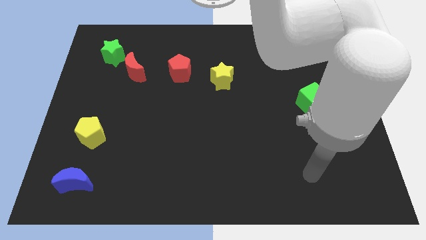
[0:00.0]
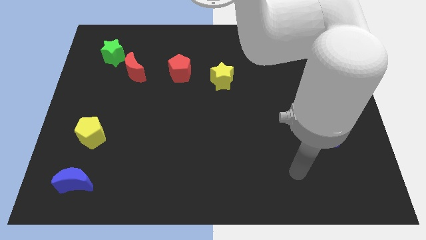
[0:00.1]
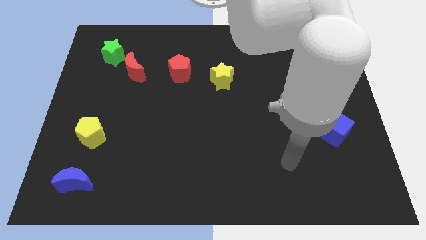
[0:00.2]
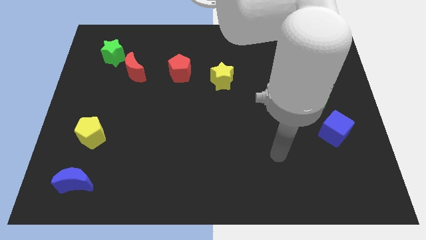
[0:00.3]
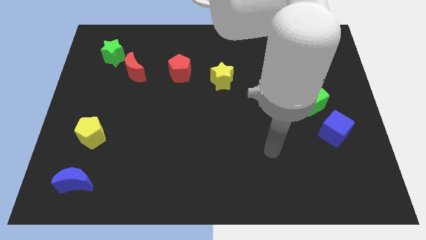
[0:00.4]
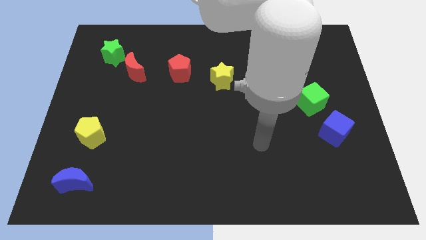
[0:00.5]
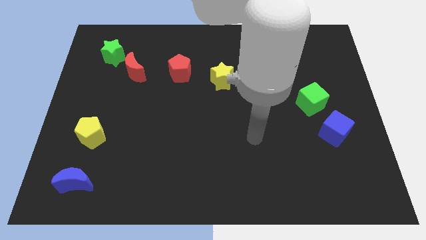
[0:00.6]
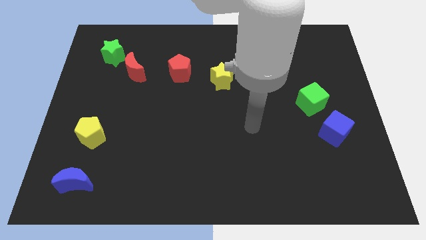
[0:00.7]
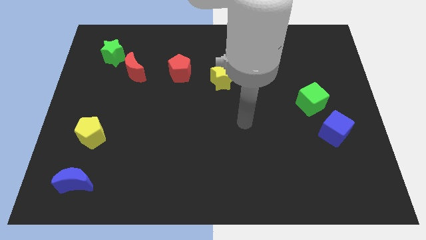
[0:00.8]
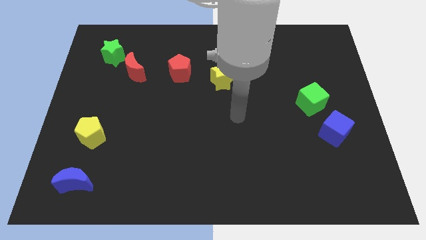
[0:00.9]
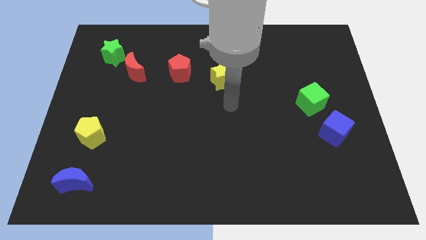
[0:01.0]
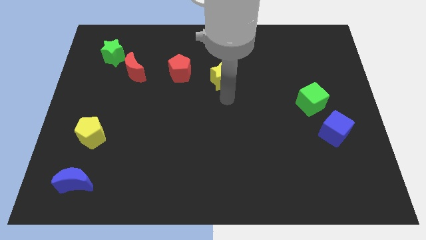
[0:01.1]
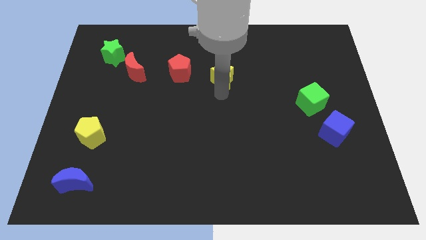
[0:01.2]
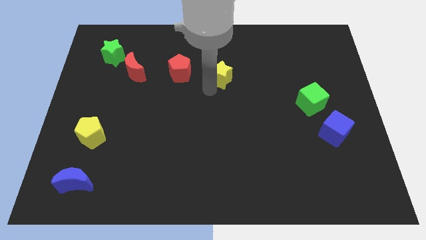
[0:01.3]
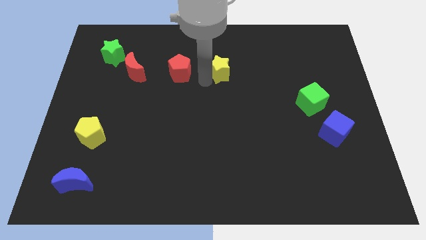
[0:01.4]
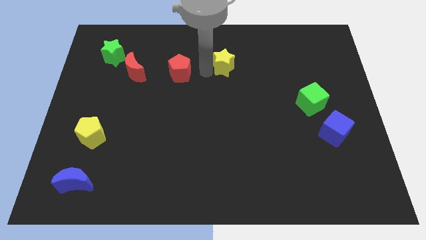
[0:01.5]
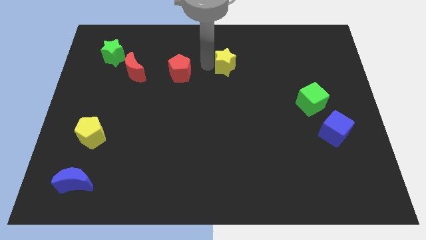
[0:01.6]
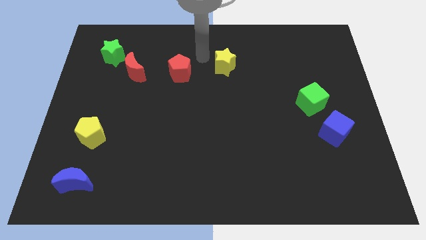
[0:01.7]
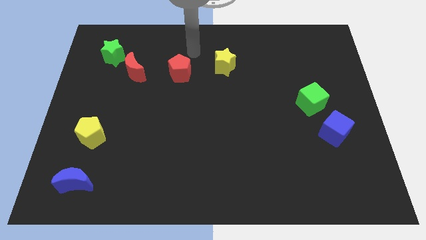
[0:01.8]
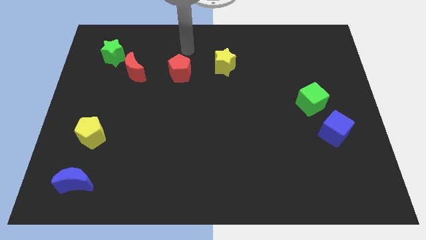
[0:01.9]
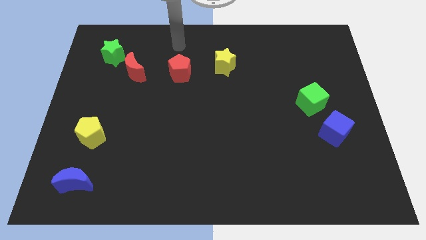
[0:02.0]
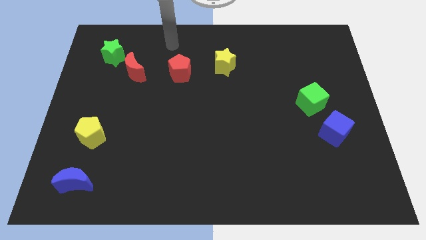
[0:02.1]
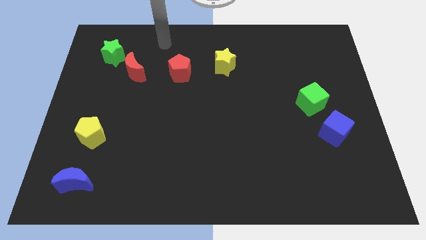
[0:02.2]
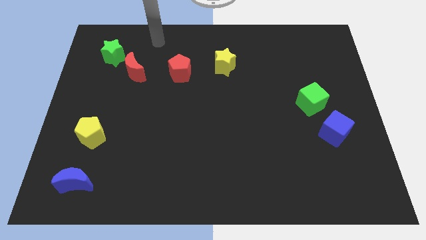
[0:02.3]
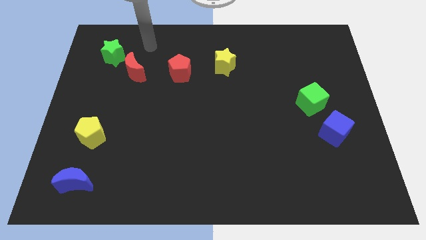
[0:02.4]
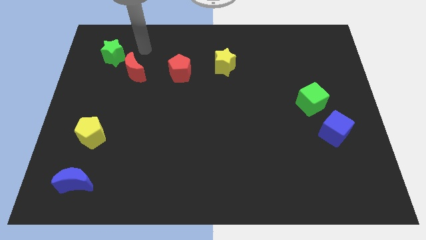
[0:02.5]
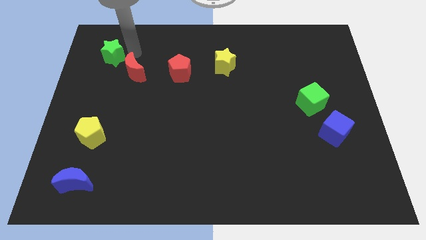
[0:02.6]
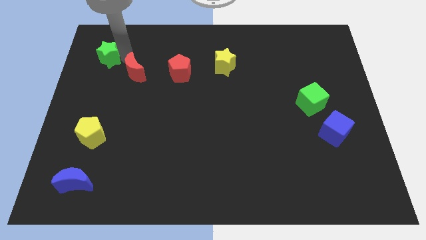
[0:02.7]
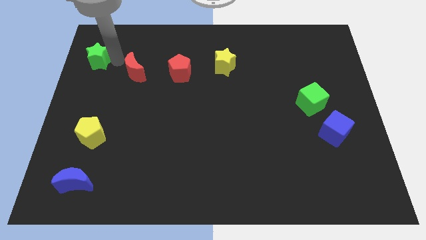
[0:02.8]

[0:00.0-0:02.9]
pull the red moon apart from the green star

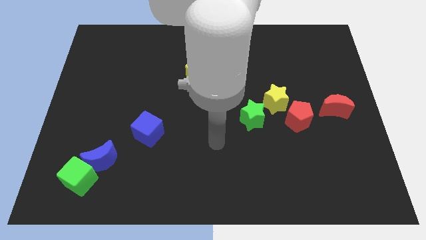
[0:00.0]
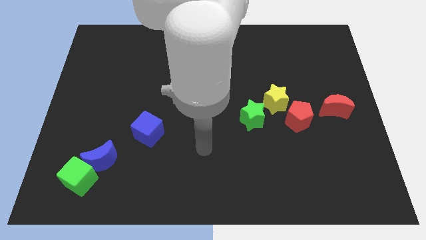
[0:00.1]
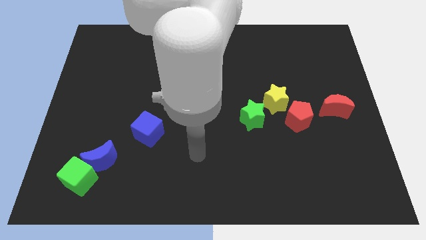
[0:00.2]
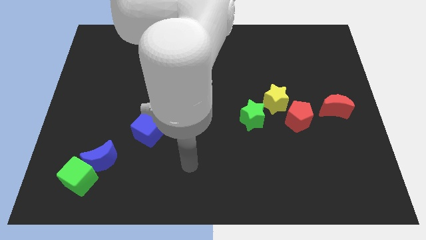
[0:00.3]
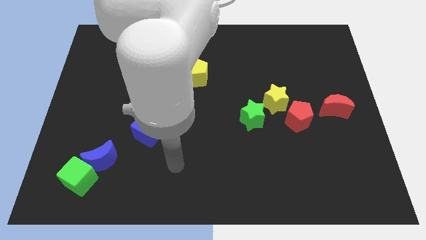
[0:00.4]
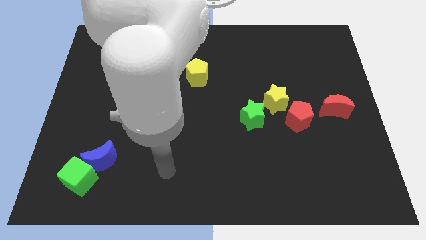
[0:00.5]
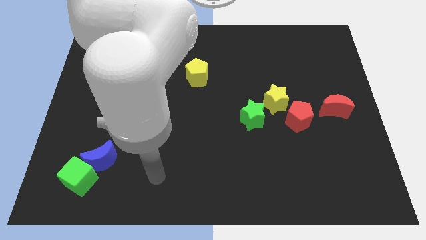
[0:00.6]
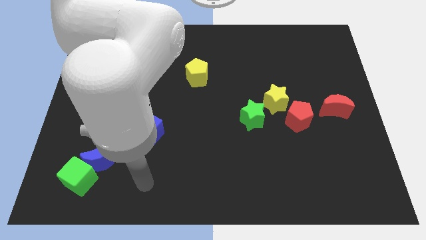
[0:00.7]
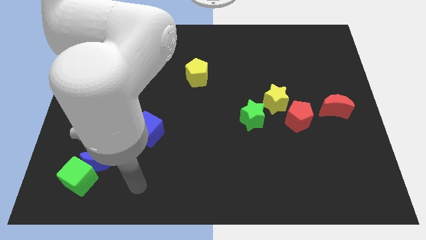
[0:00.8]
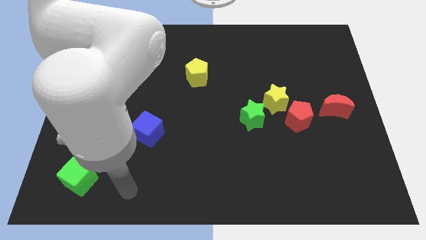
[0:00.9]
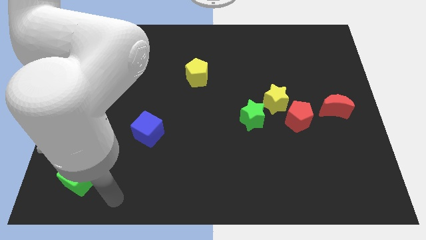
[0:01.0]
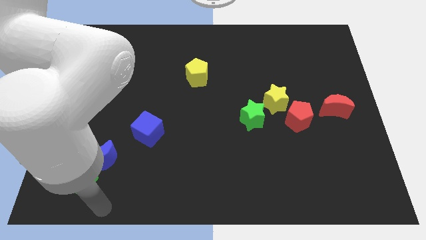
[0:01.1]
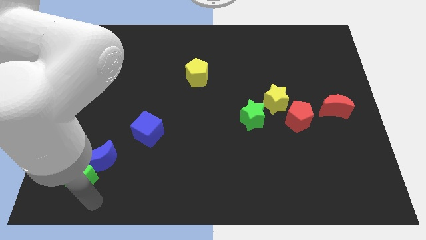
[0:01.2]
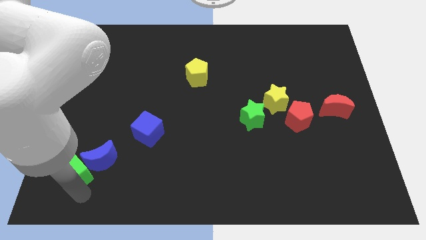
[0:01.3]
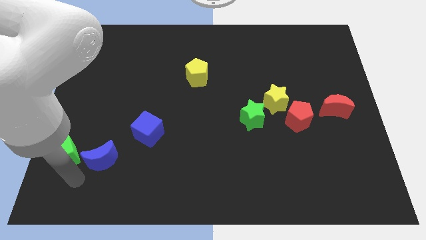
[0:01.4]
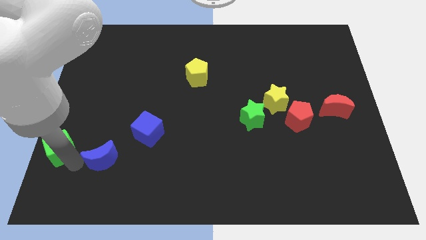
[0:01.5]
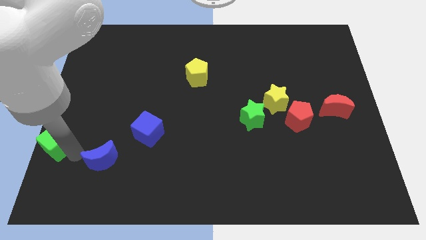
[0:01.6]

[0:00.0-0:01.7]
pull the blue moon apart from the green cube

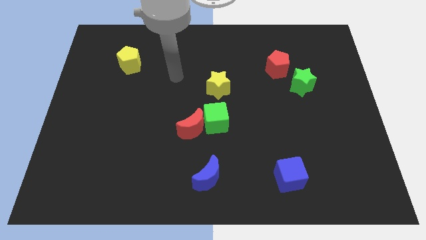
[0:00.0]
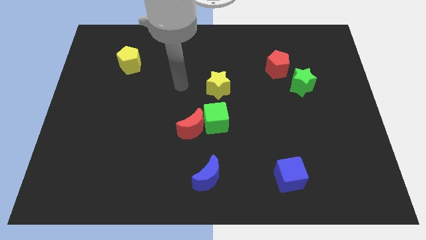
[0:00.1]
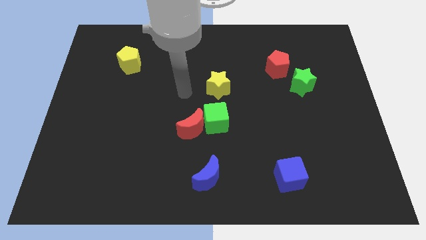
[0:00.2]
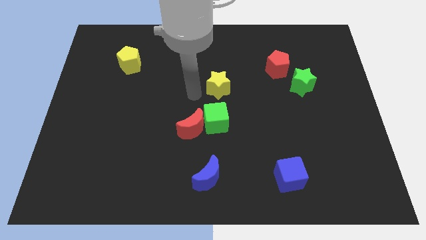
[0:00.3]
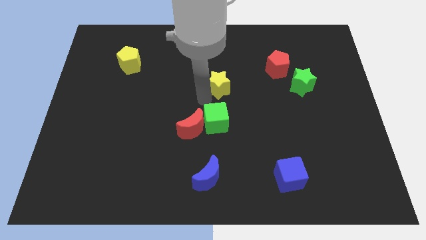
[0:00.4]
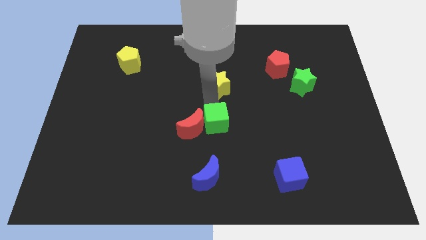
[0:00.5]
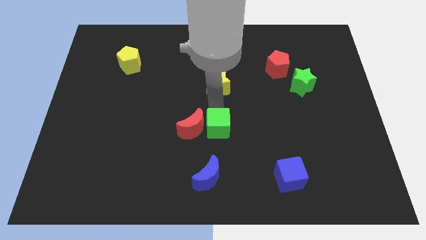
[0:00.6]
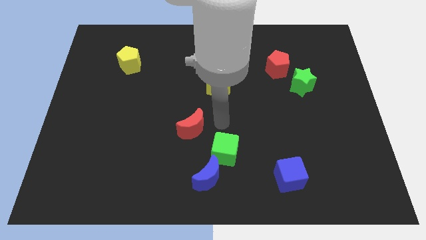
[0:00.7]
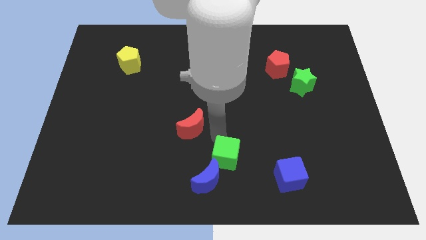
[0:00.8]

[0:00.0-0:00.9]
pull the red moon apart from the green cube

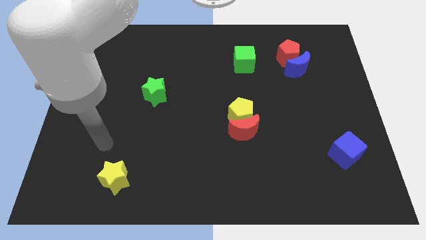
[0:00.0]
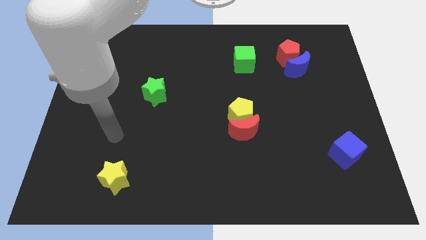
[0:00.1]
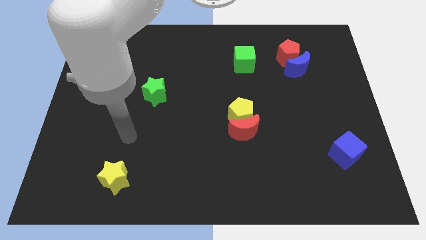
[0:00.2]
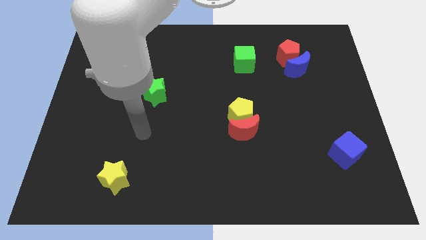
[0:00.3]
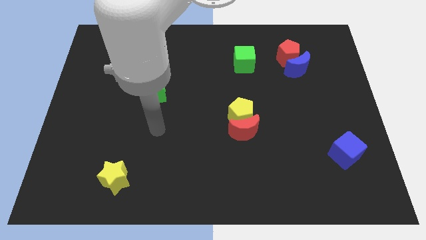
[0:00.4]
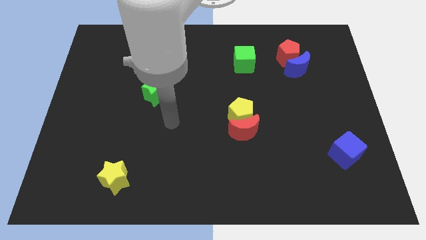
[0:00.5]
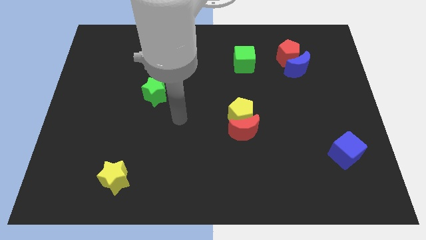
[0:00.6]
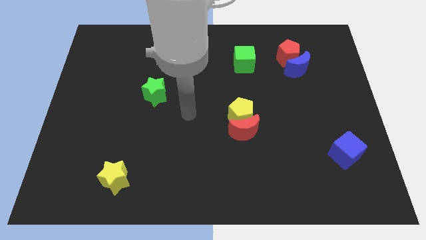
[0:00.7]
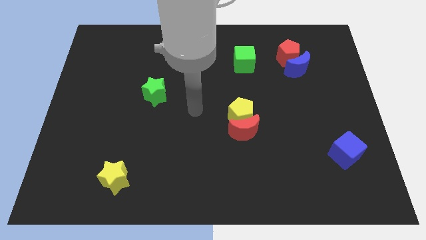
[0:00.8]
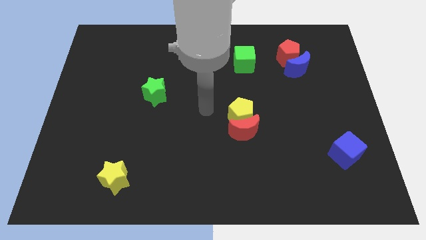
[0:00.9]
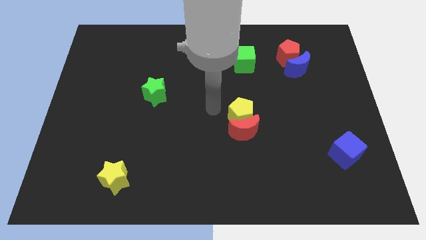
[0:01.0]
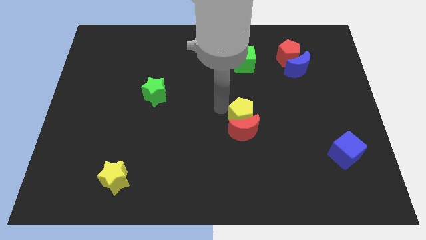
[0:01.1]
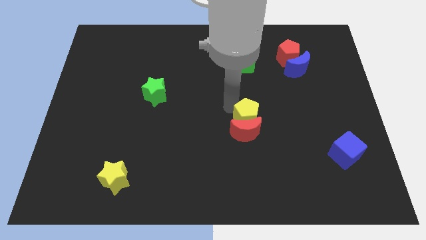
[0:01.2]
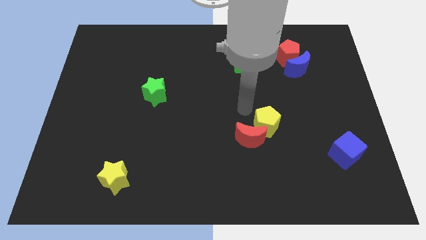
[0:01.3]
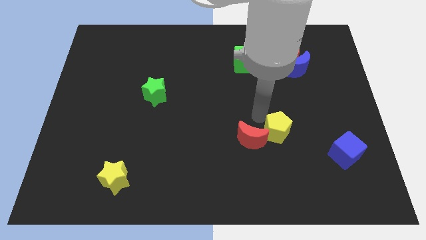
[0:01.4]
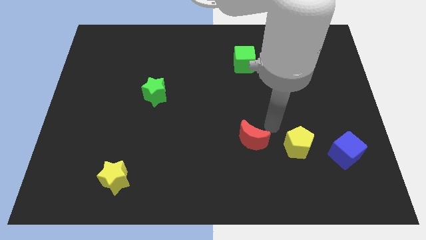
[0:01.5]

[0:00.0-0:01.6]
separate the red moon from the yellow pentagon

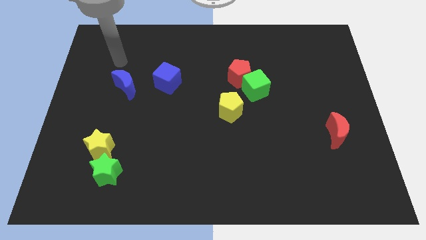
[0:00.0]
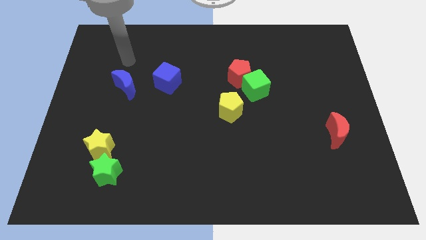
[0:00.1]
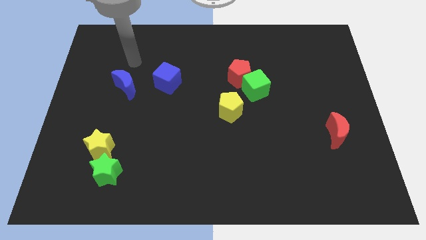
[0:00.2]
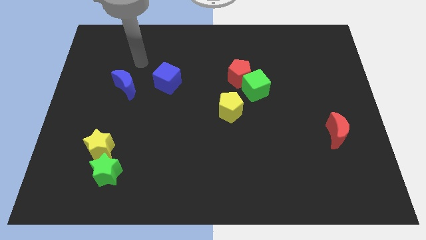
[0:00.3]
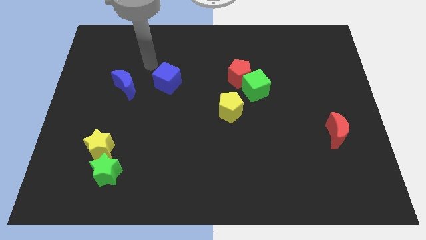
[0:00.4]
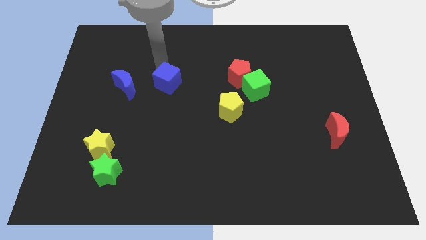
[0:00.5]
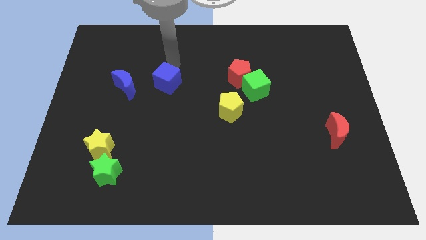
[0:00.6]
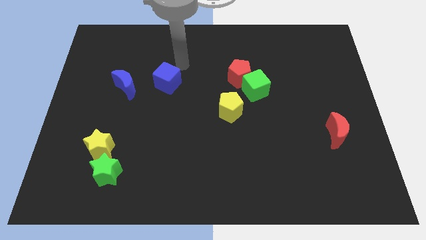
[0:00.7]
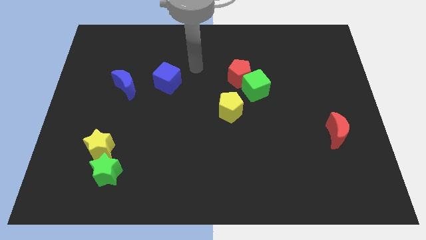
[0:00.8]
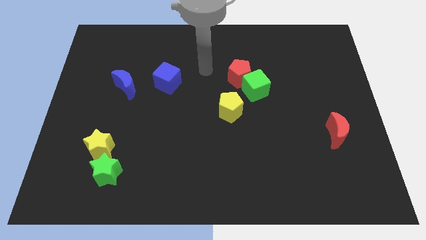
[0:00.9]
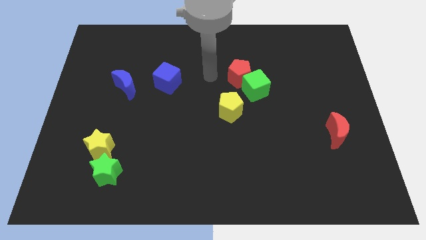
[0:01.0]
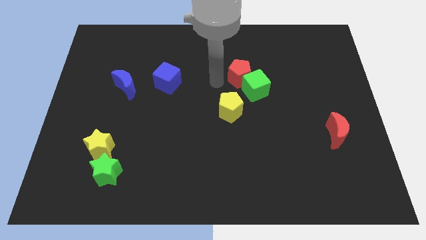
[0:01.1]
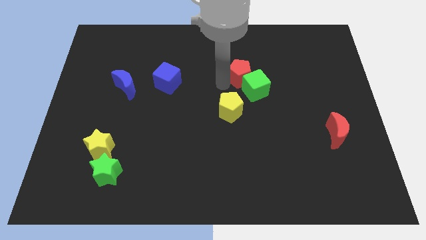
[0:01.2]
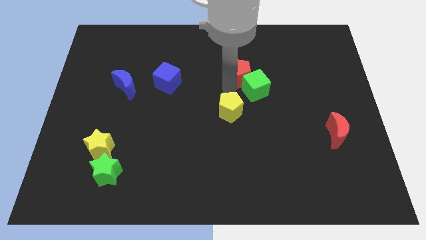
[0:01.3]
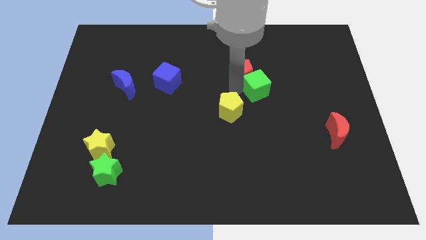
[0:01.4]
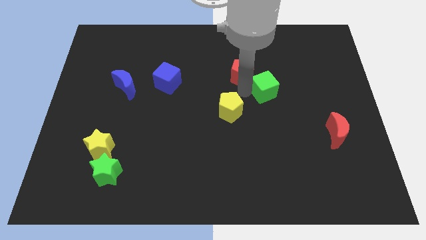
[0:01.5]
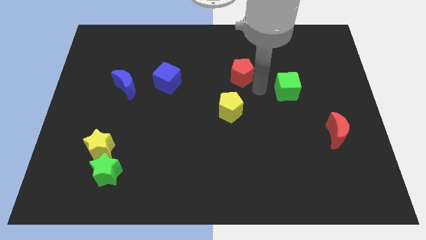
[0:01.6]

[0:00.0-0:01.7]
move the red pentagon away from the green cube

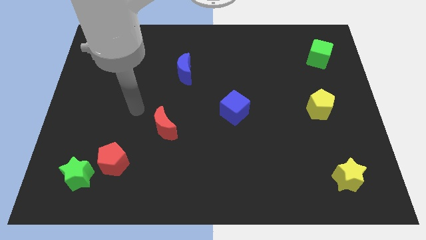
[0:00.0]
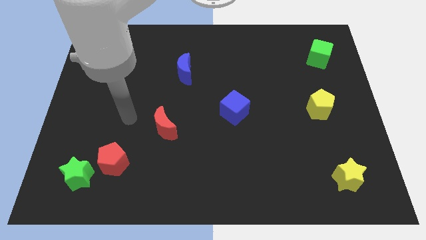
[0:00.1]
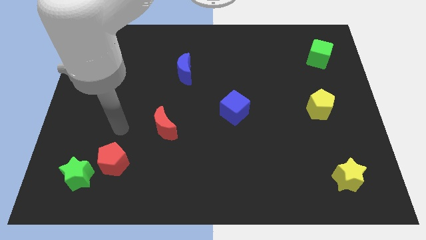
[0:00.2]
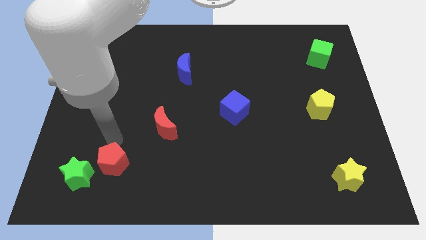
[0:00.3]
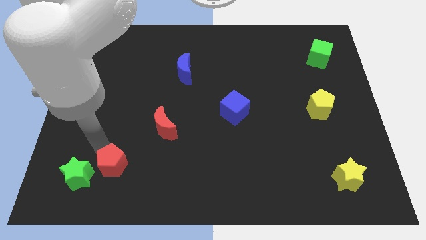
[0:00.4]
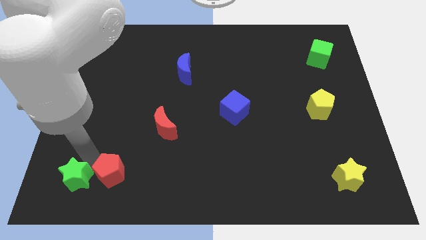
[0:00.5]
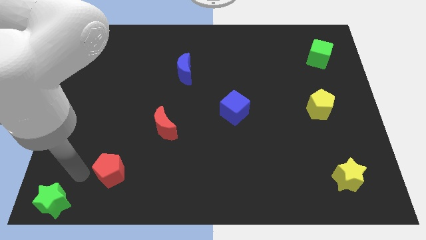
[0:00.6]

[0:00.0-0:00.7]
move the red pentagon away from the green star
